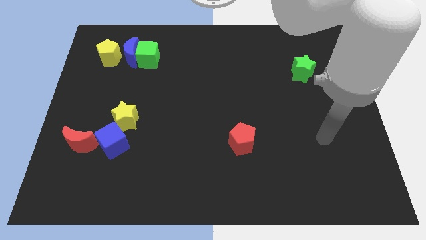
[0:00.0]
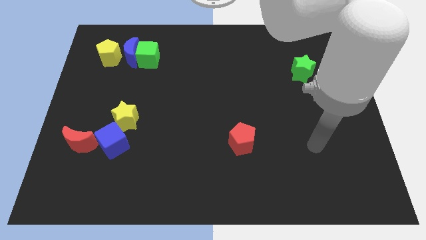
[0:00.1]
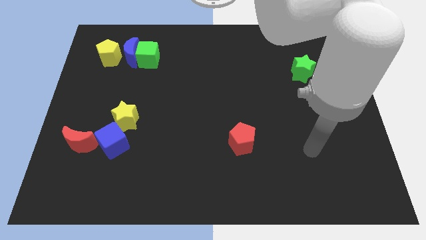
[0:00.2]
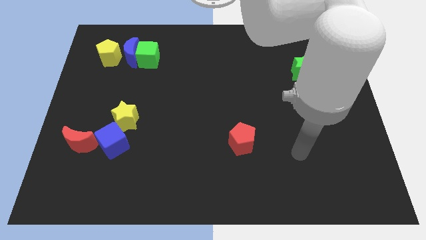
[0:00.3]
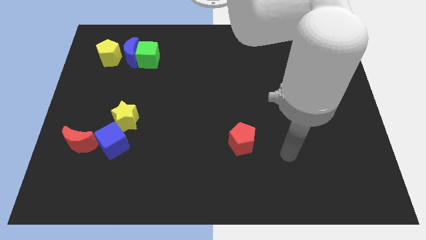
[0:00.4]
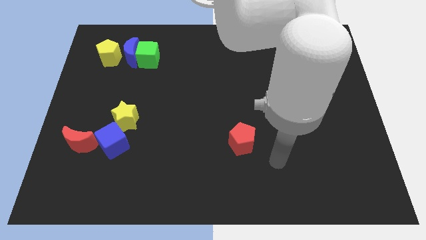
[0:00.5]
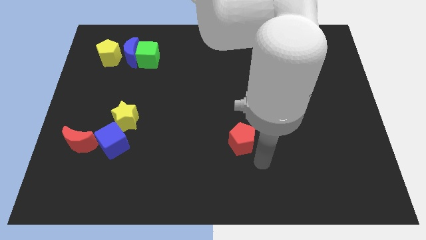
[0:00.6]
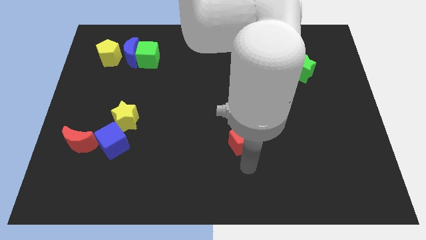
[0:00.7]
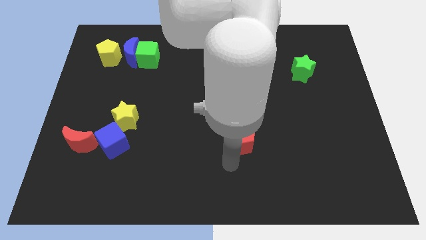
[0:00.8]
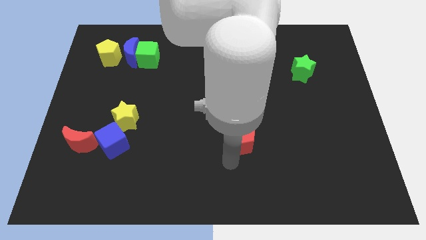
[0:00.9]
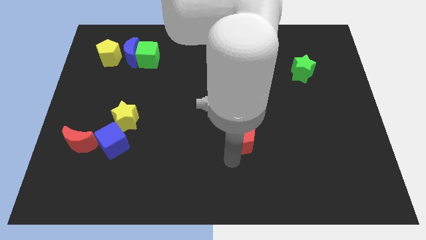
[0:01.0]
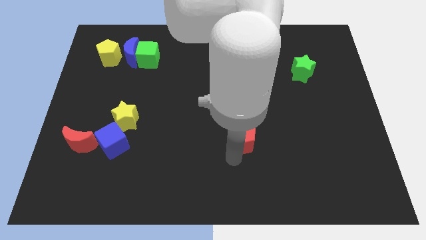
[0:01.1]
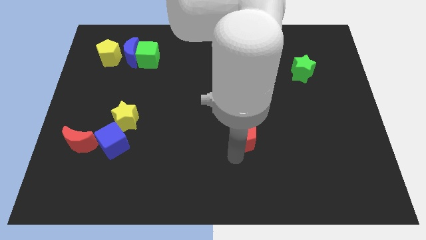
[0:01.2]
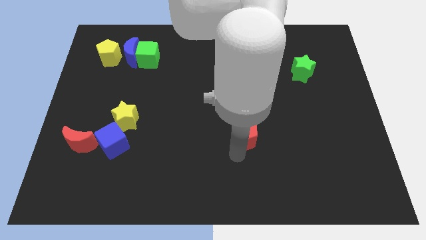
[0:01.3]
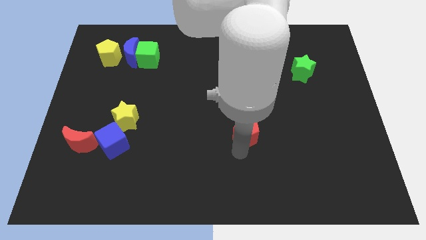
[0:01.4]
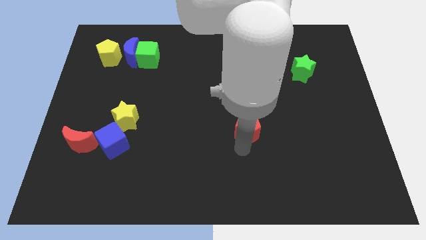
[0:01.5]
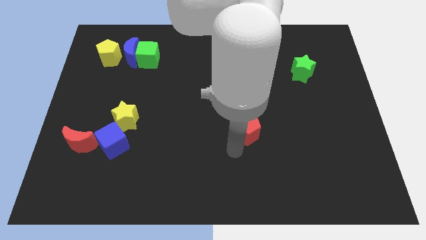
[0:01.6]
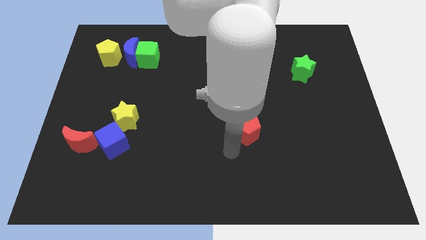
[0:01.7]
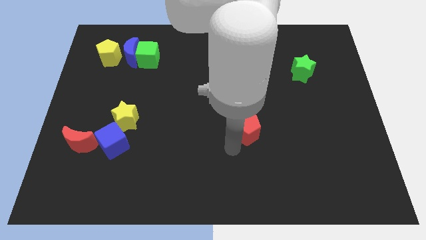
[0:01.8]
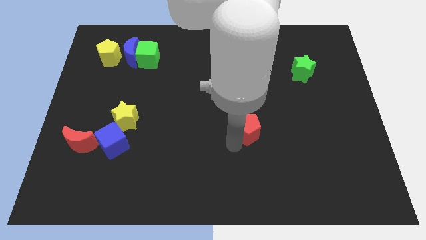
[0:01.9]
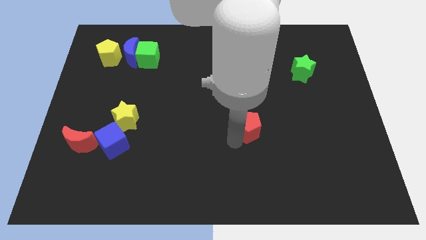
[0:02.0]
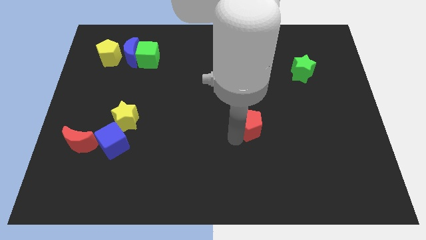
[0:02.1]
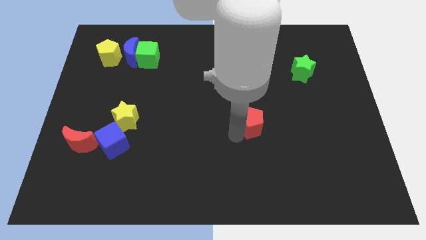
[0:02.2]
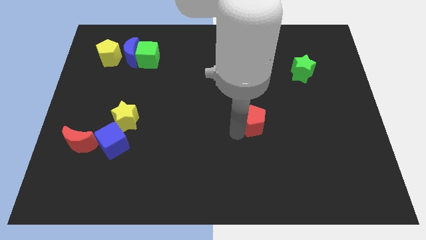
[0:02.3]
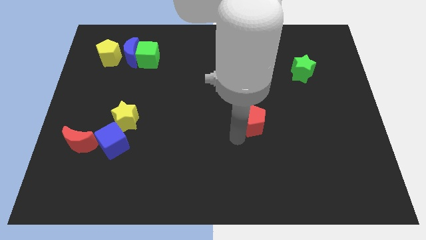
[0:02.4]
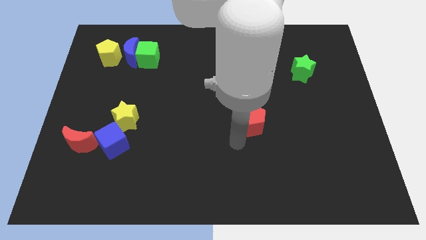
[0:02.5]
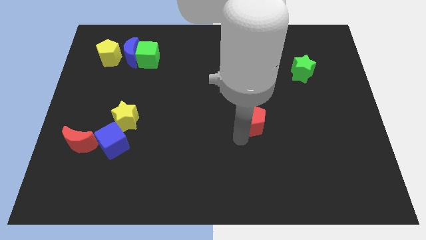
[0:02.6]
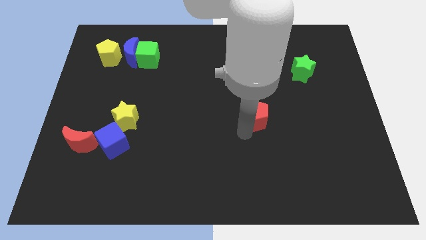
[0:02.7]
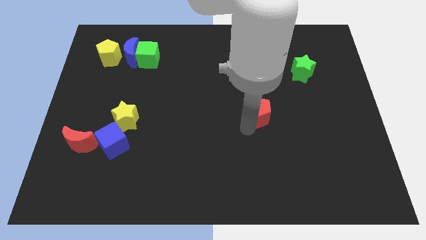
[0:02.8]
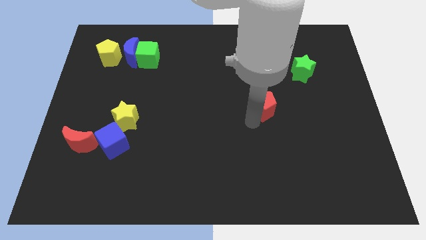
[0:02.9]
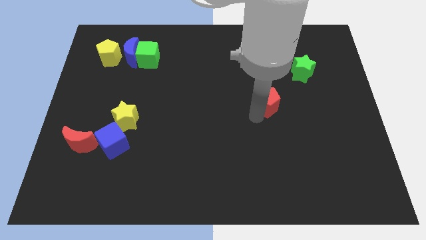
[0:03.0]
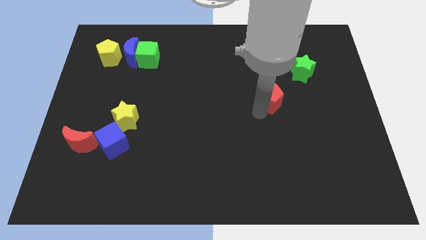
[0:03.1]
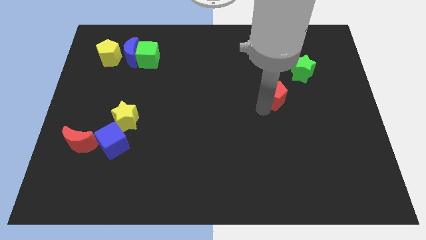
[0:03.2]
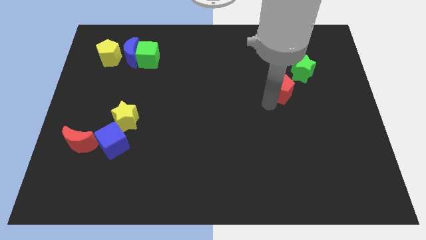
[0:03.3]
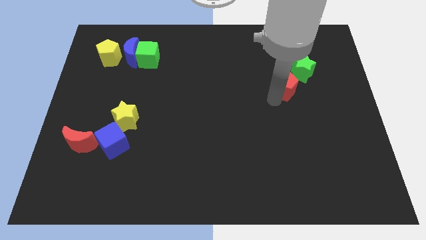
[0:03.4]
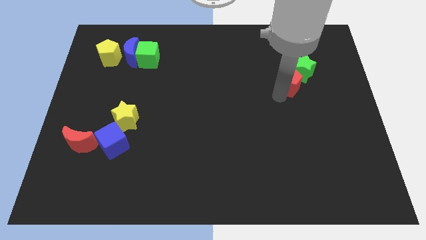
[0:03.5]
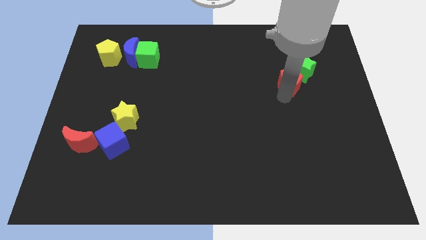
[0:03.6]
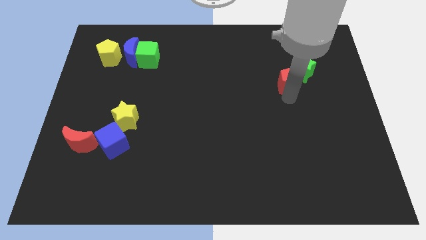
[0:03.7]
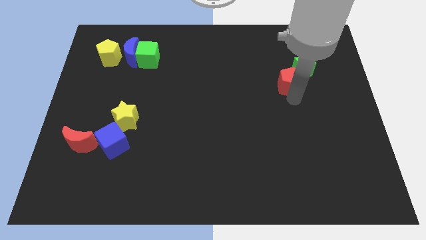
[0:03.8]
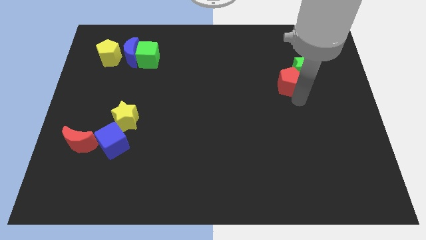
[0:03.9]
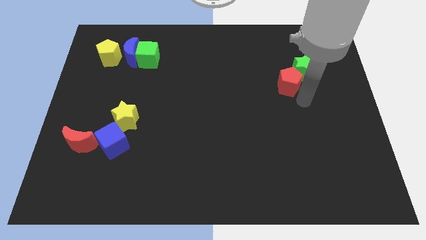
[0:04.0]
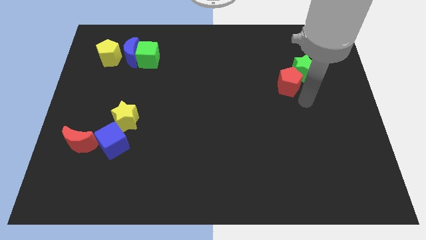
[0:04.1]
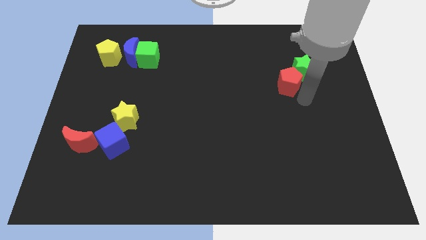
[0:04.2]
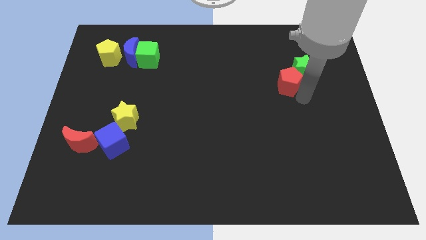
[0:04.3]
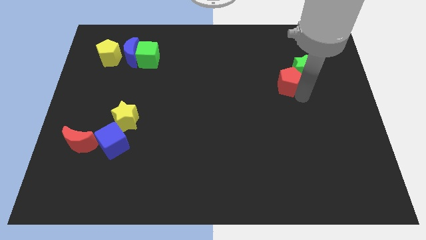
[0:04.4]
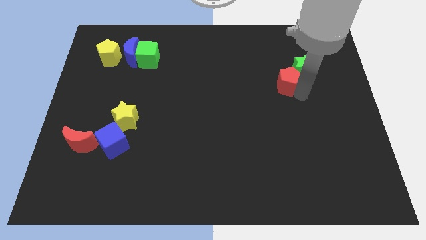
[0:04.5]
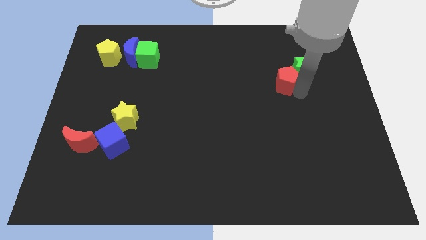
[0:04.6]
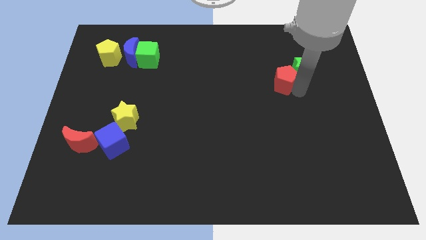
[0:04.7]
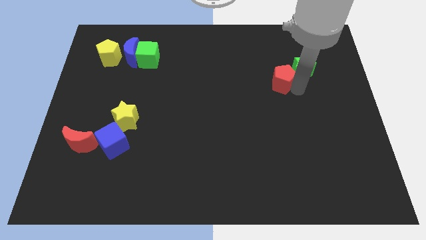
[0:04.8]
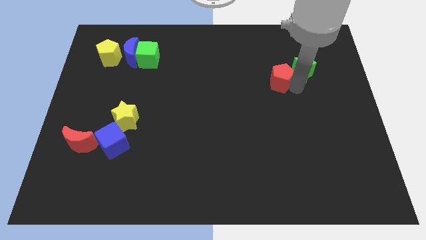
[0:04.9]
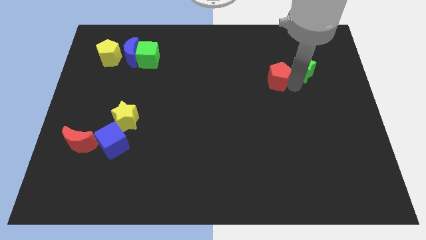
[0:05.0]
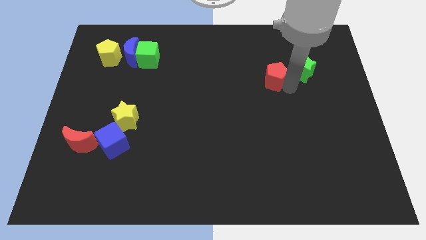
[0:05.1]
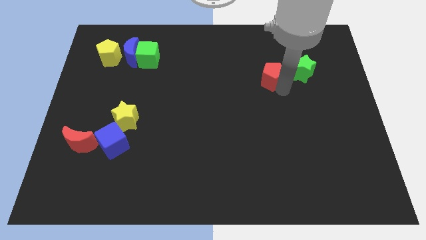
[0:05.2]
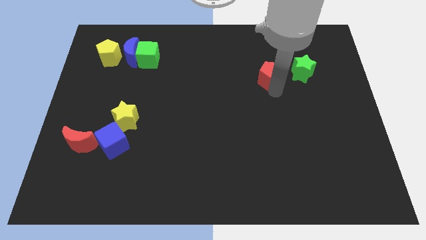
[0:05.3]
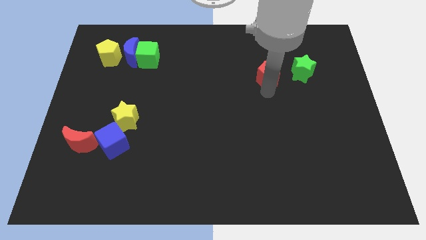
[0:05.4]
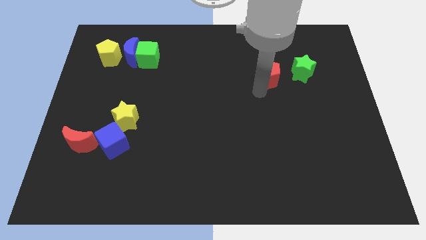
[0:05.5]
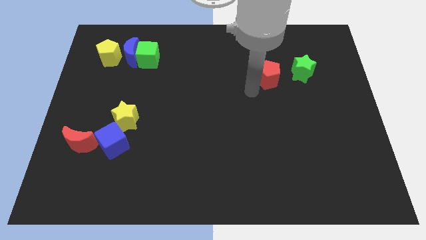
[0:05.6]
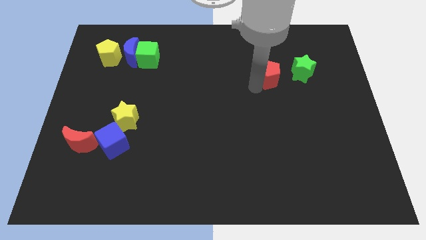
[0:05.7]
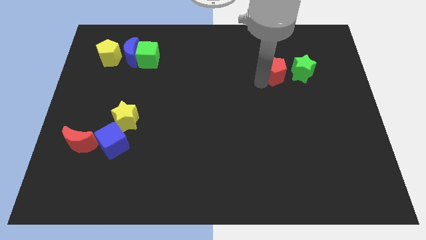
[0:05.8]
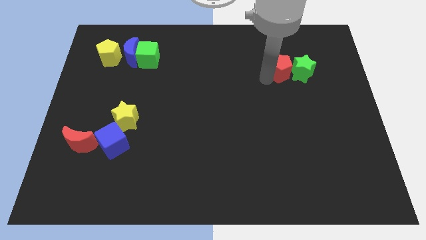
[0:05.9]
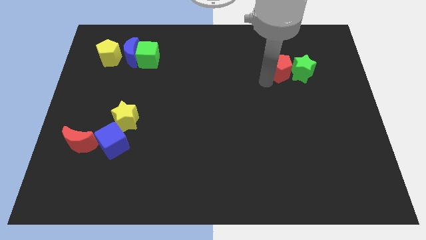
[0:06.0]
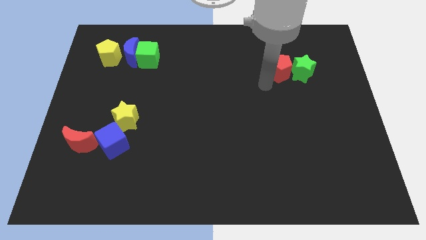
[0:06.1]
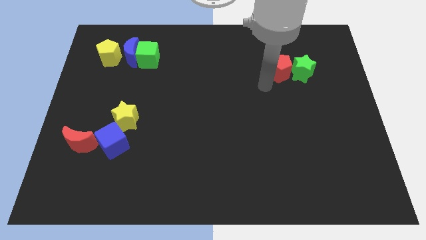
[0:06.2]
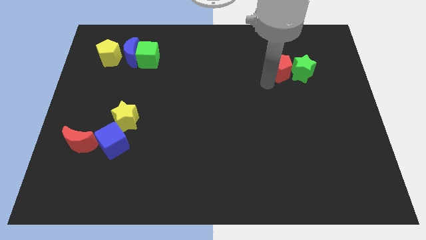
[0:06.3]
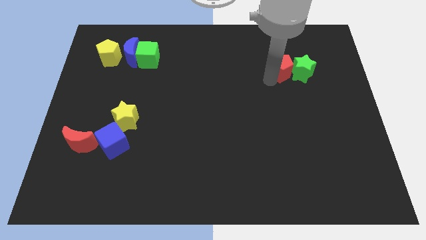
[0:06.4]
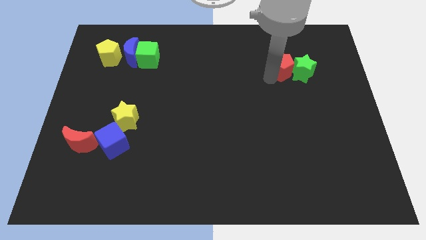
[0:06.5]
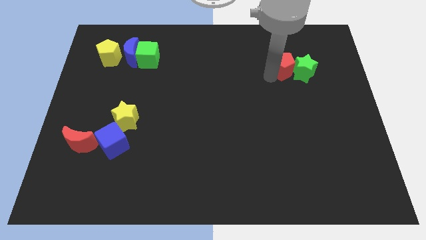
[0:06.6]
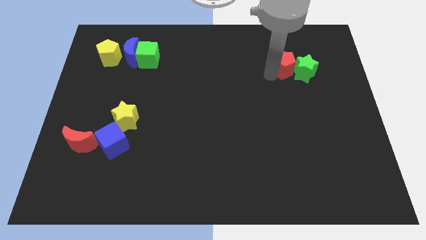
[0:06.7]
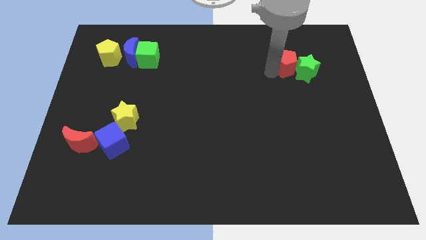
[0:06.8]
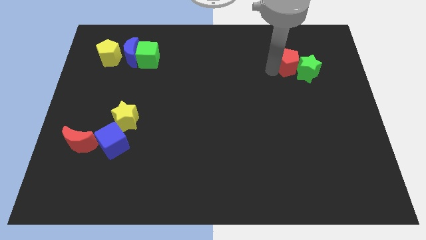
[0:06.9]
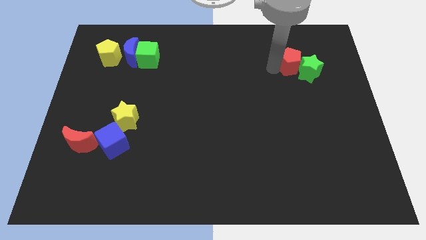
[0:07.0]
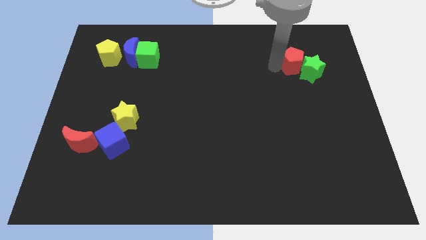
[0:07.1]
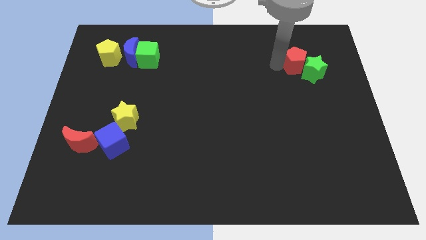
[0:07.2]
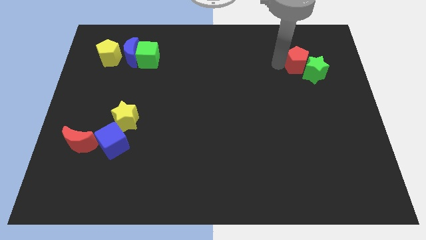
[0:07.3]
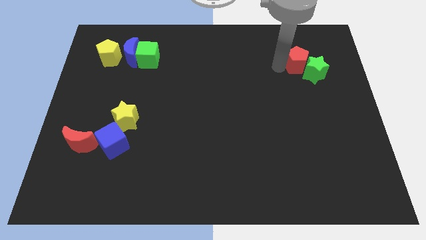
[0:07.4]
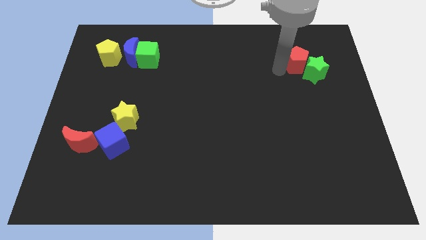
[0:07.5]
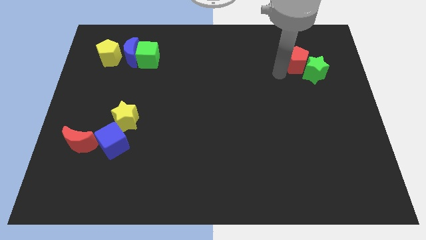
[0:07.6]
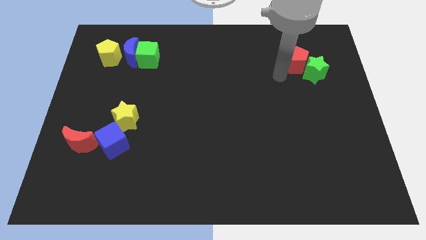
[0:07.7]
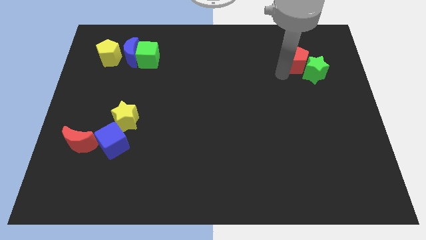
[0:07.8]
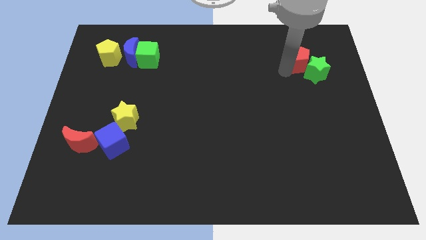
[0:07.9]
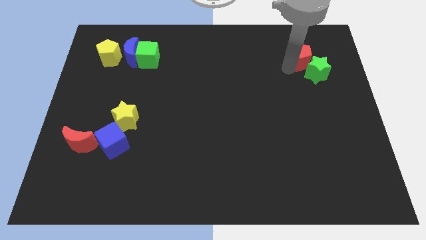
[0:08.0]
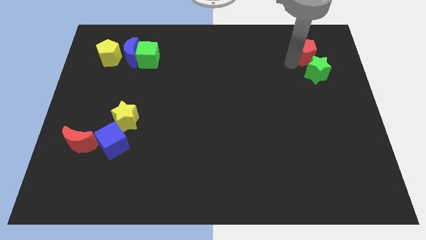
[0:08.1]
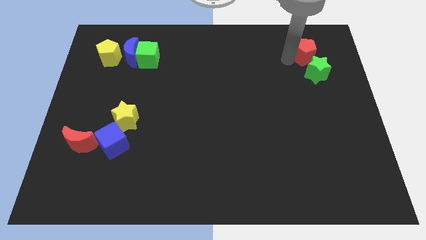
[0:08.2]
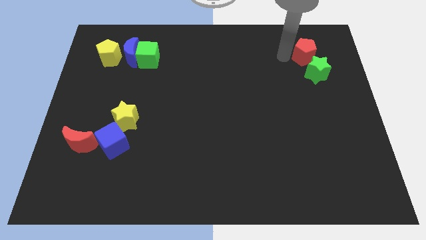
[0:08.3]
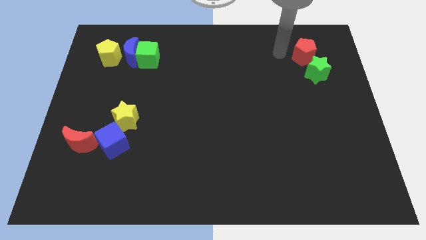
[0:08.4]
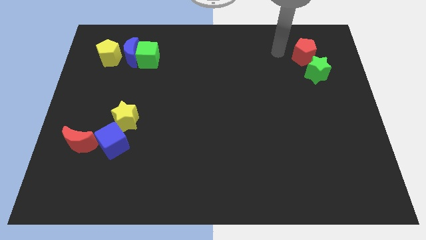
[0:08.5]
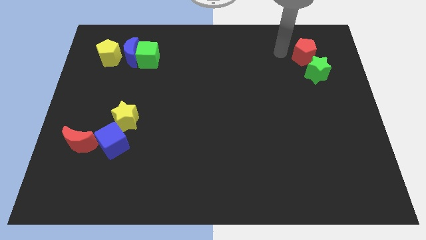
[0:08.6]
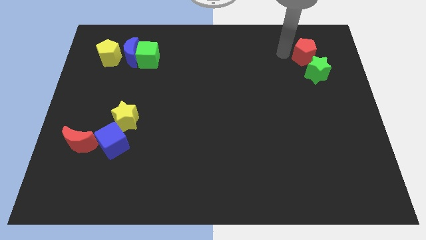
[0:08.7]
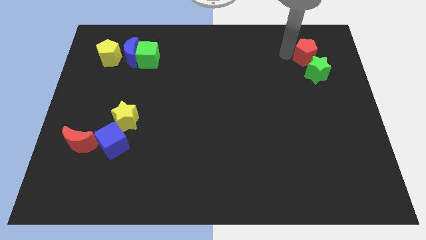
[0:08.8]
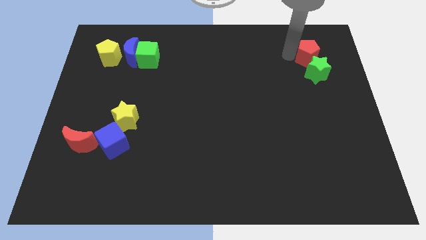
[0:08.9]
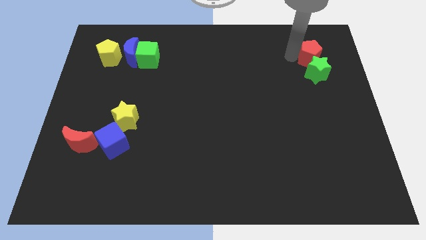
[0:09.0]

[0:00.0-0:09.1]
move the red pentagon to the top right side of the green star
